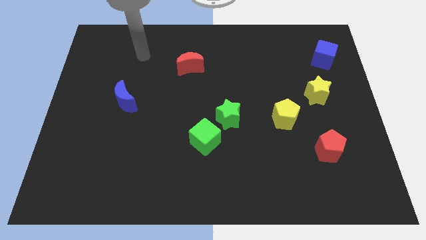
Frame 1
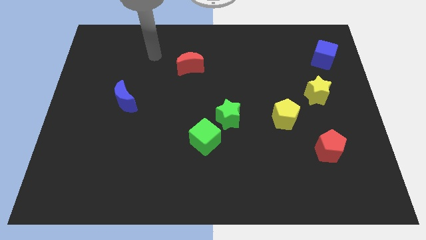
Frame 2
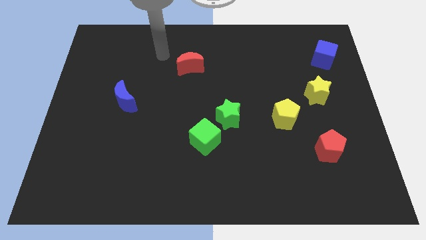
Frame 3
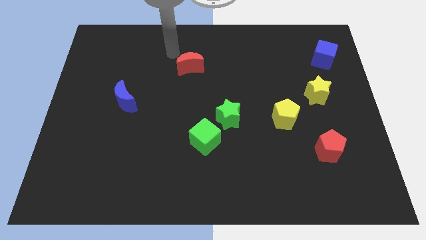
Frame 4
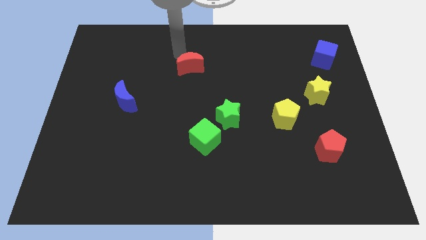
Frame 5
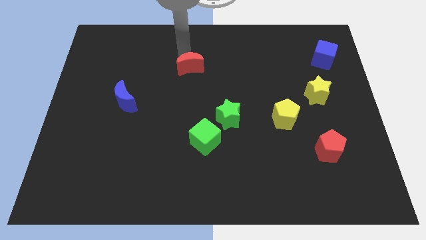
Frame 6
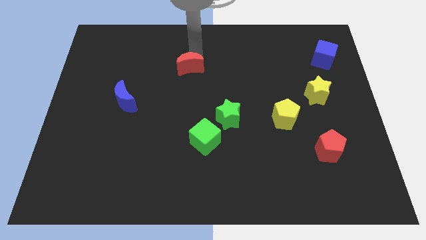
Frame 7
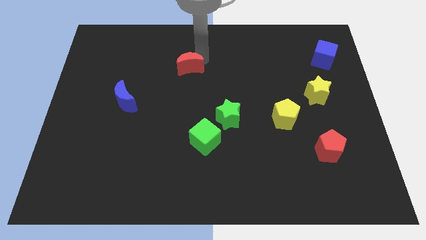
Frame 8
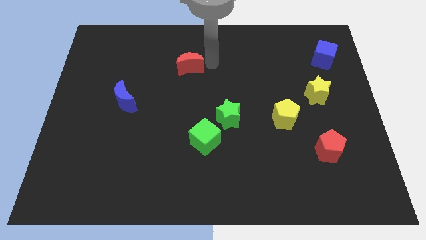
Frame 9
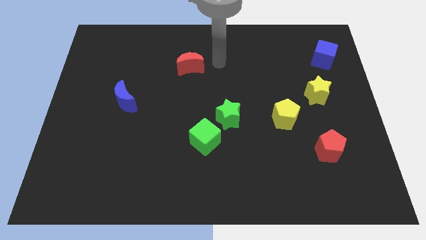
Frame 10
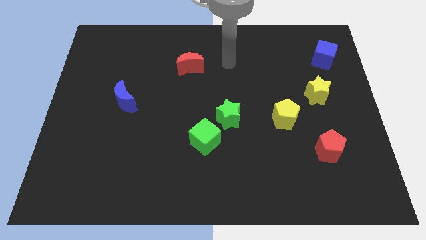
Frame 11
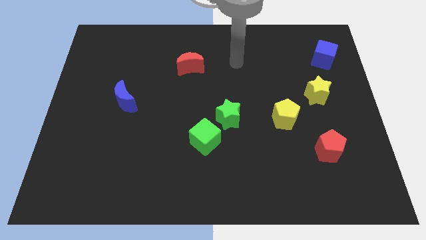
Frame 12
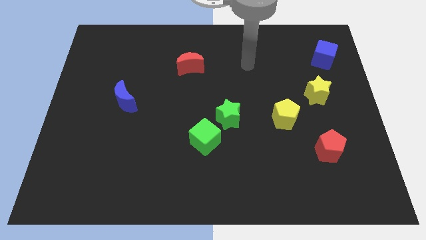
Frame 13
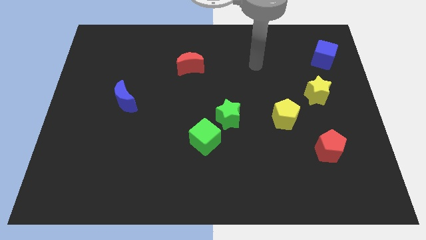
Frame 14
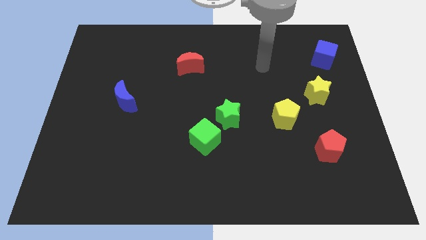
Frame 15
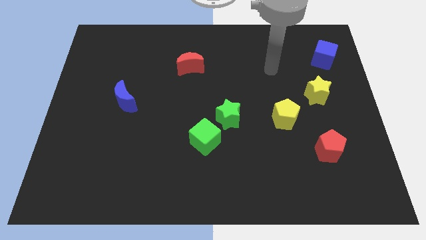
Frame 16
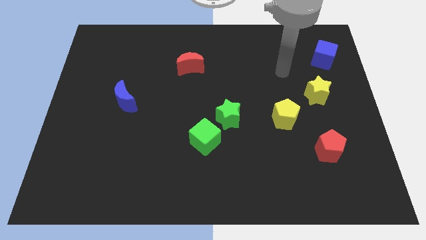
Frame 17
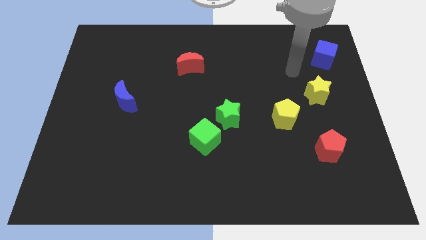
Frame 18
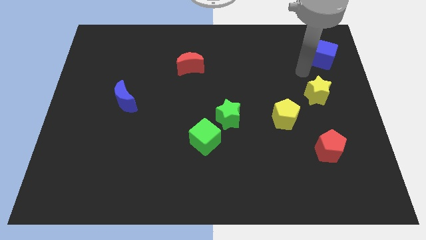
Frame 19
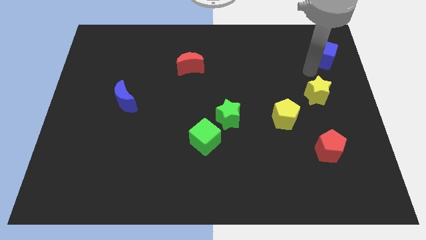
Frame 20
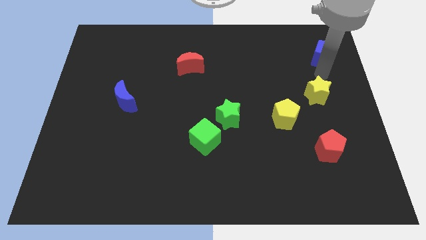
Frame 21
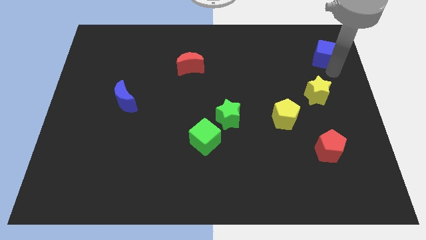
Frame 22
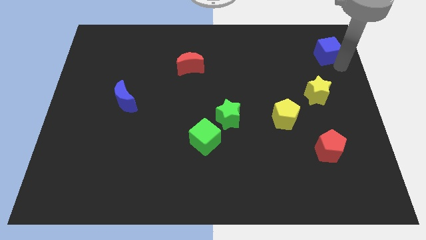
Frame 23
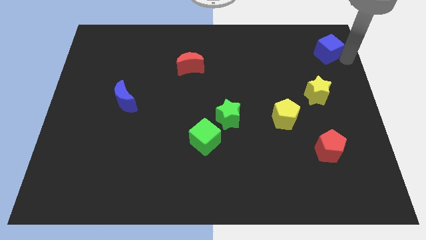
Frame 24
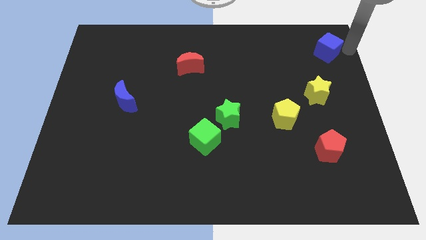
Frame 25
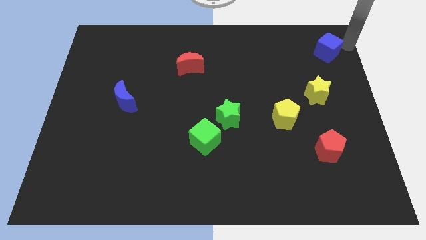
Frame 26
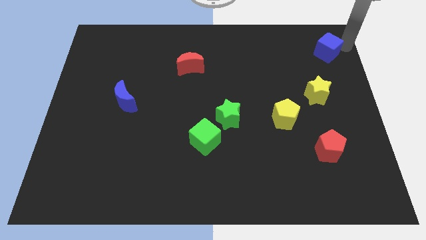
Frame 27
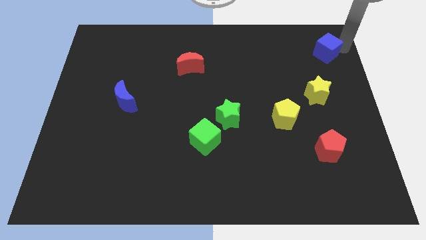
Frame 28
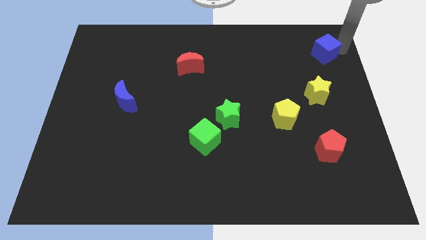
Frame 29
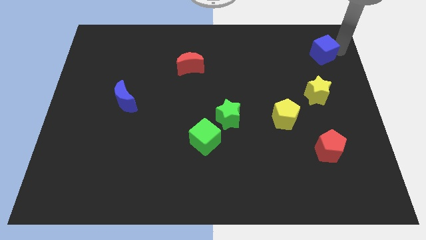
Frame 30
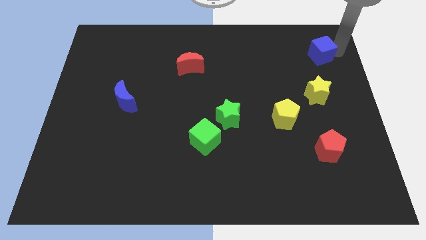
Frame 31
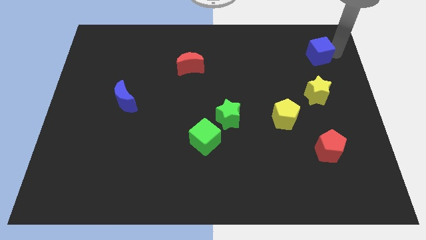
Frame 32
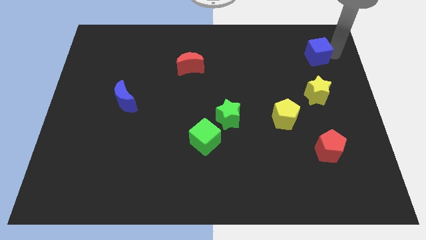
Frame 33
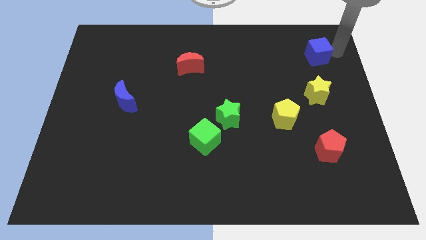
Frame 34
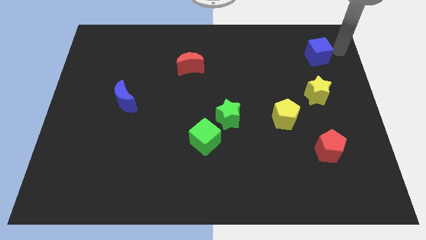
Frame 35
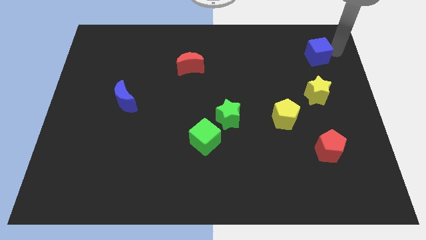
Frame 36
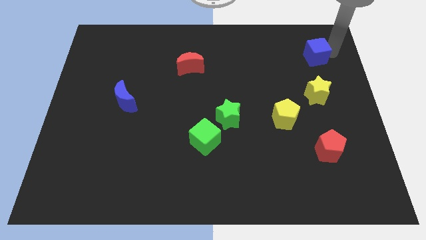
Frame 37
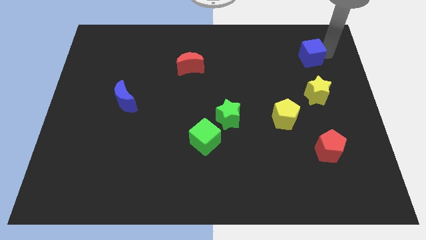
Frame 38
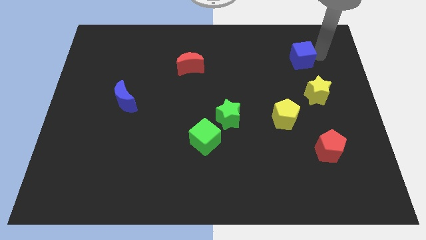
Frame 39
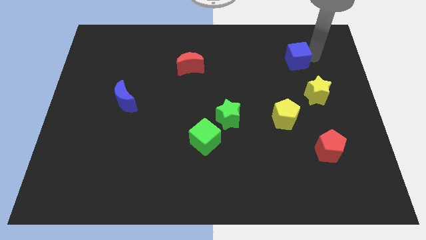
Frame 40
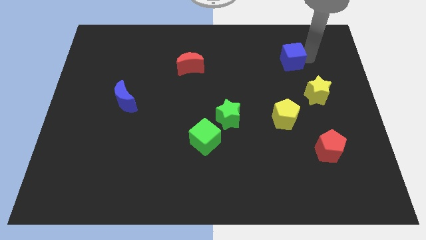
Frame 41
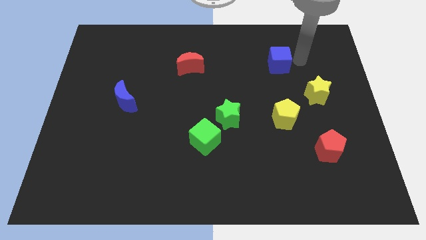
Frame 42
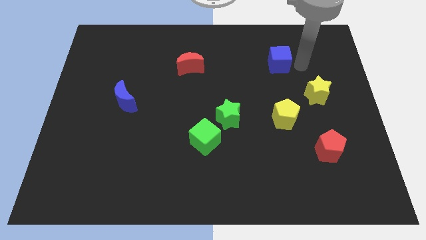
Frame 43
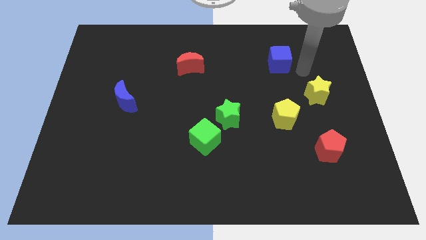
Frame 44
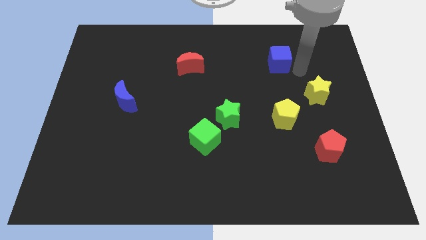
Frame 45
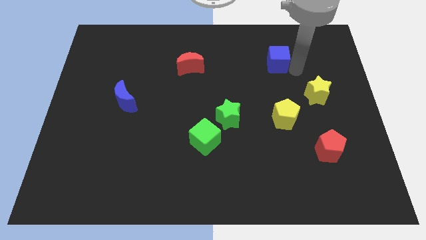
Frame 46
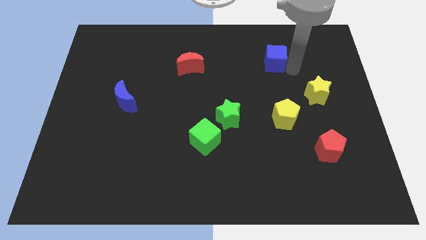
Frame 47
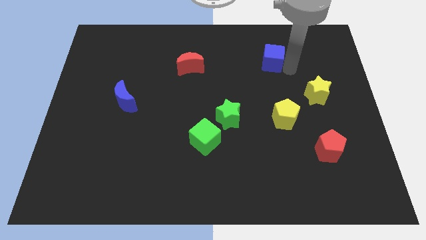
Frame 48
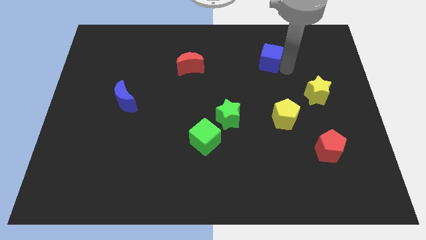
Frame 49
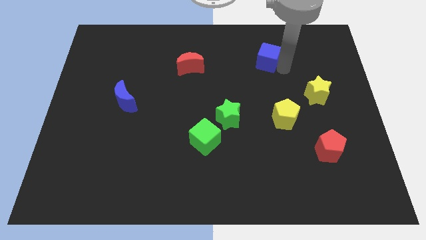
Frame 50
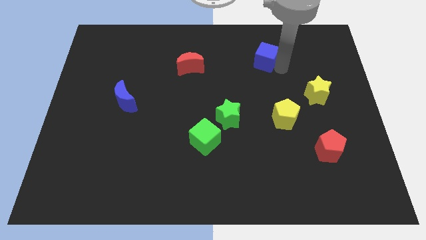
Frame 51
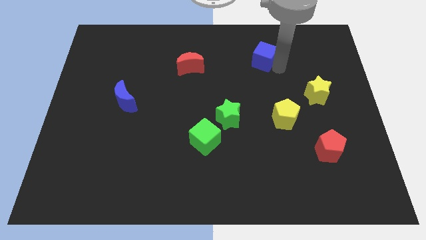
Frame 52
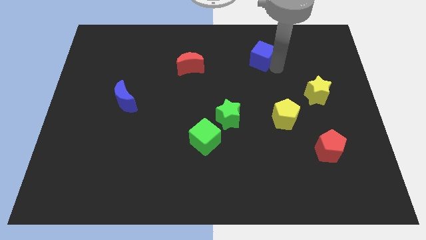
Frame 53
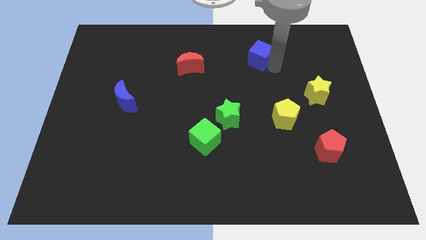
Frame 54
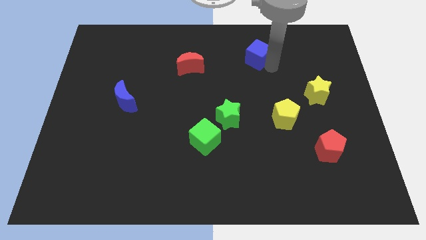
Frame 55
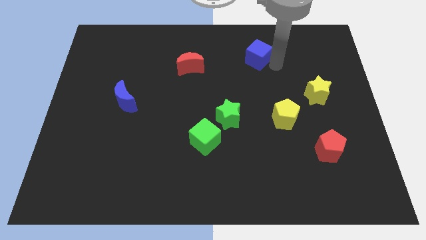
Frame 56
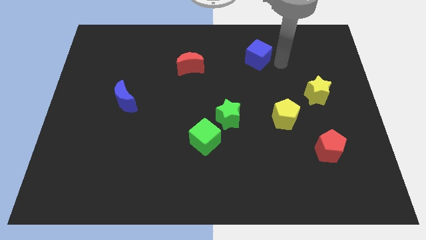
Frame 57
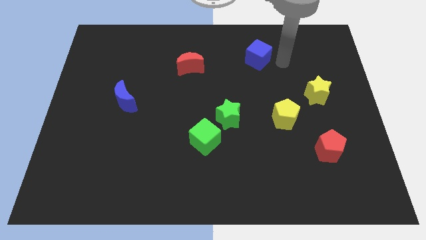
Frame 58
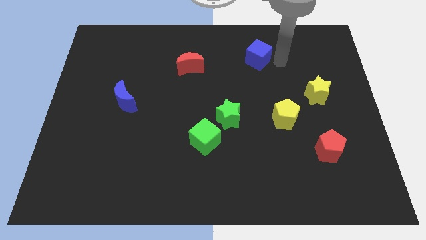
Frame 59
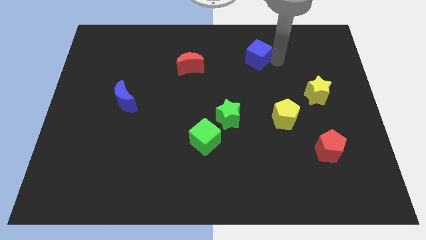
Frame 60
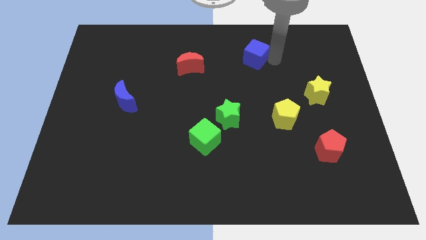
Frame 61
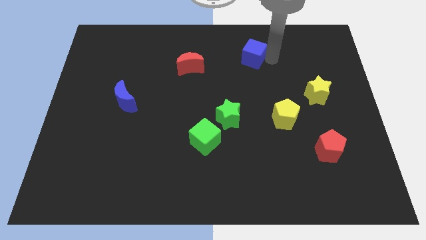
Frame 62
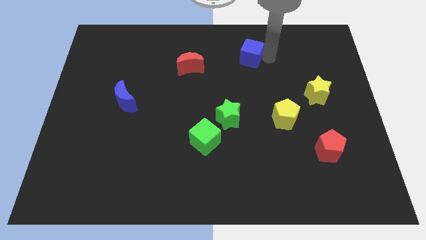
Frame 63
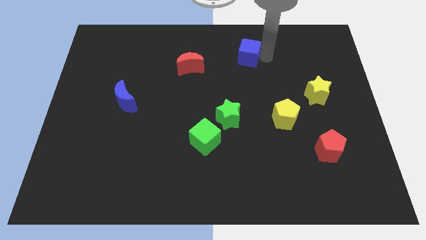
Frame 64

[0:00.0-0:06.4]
push the blue cube to the left

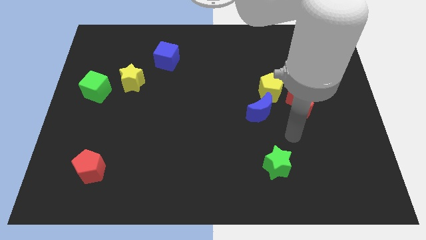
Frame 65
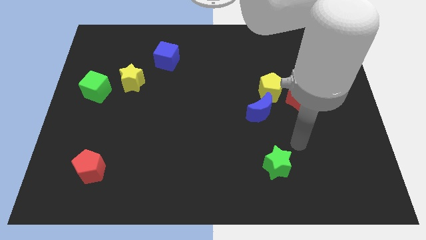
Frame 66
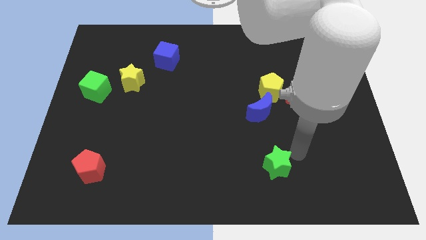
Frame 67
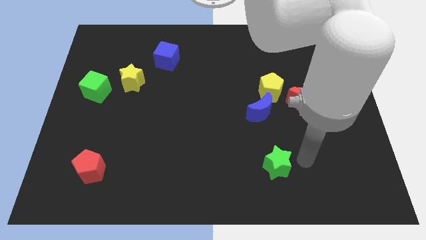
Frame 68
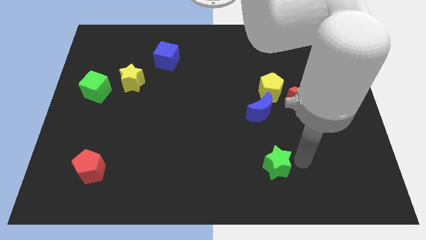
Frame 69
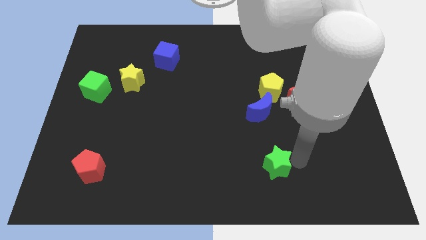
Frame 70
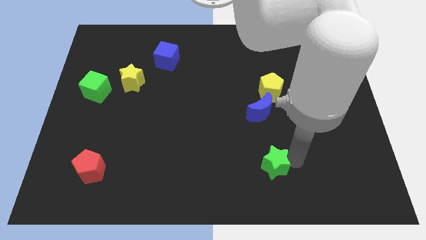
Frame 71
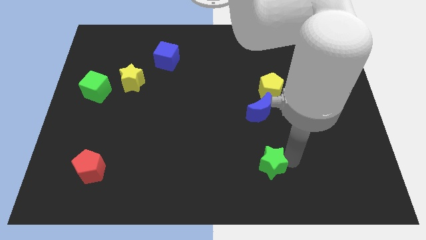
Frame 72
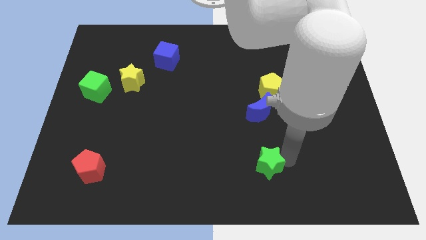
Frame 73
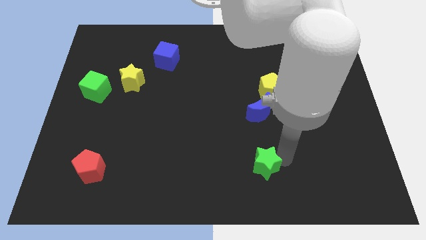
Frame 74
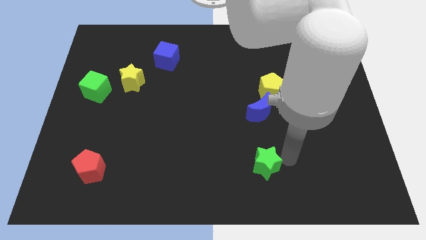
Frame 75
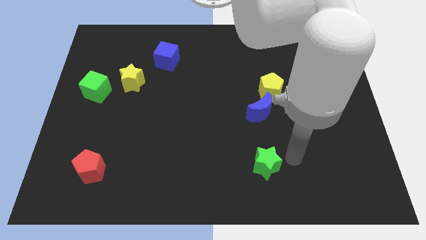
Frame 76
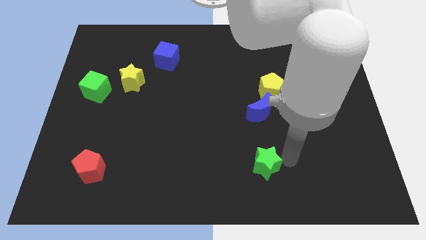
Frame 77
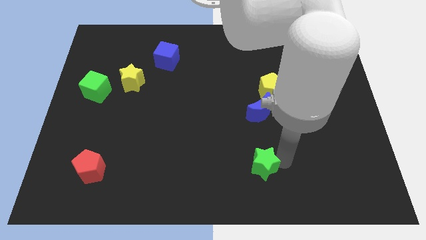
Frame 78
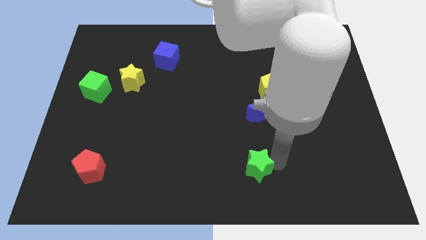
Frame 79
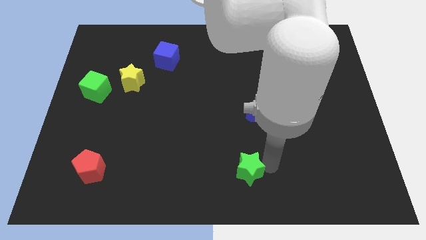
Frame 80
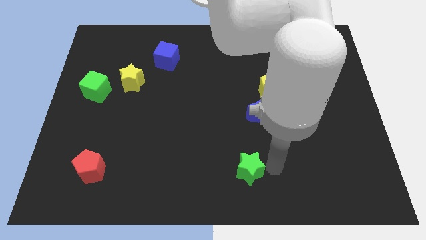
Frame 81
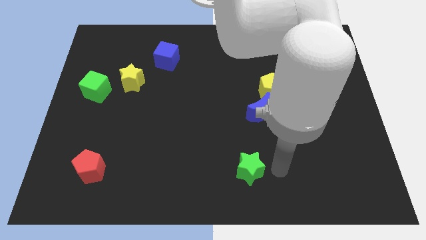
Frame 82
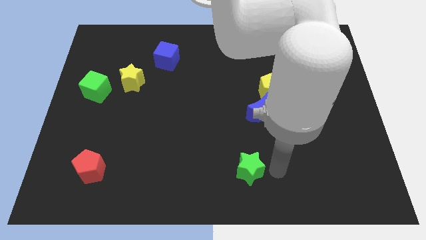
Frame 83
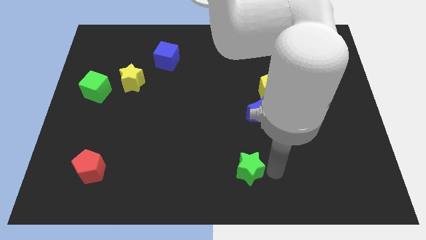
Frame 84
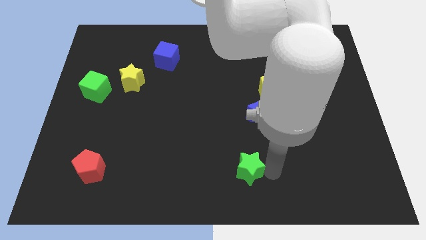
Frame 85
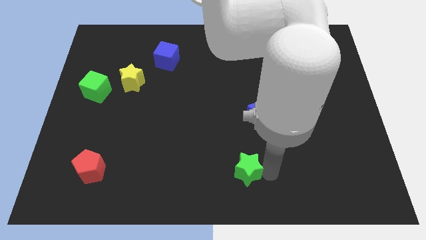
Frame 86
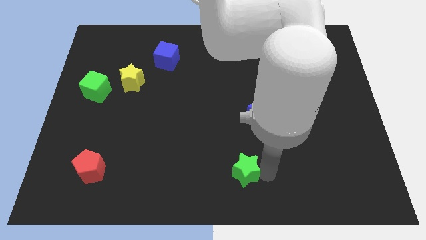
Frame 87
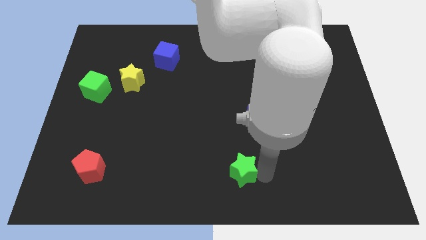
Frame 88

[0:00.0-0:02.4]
push the green star slightly to the left
